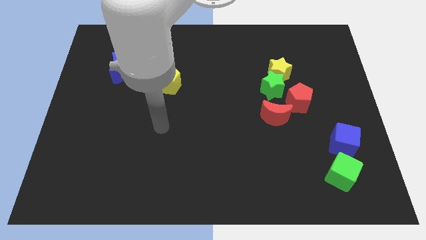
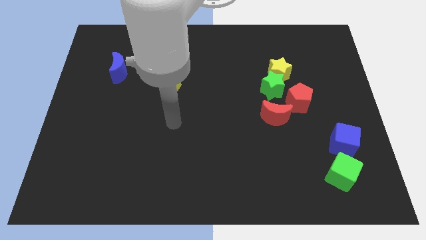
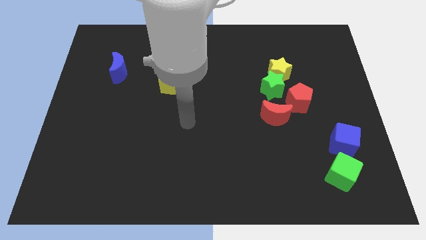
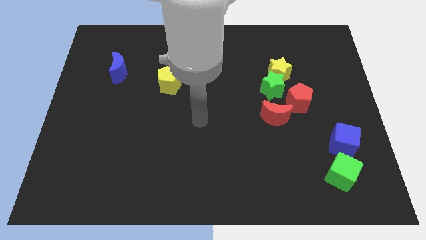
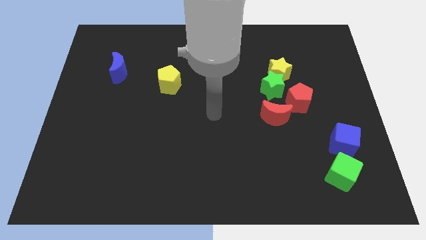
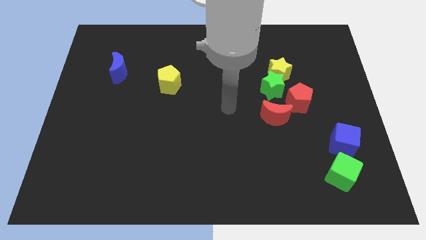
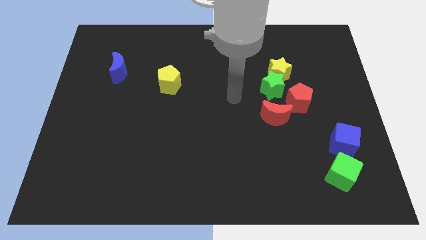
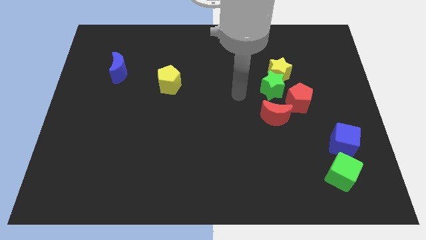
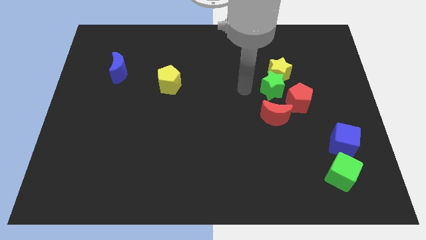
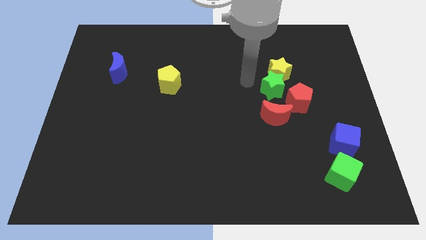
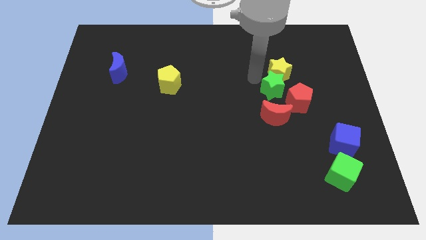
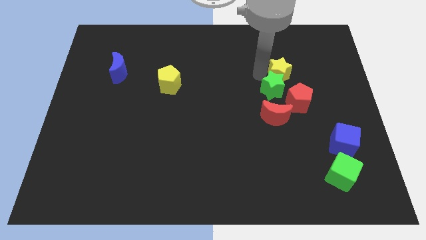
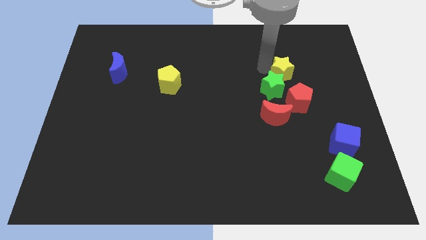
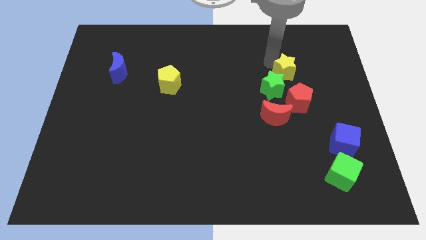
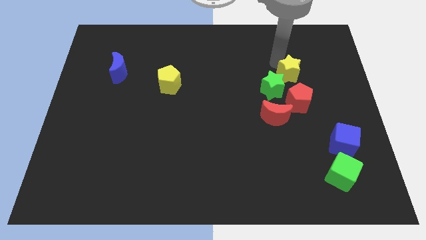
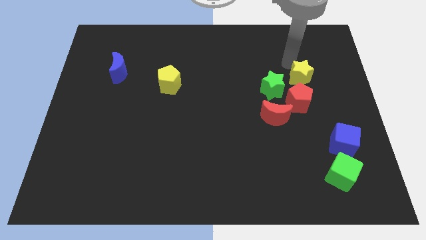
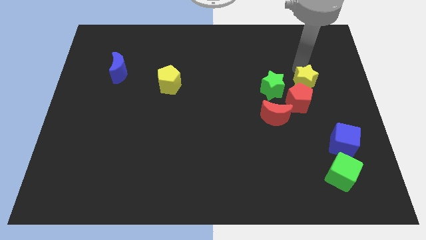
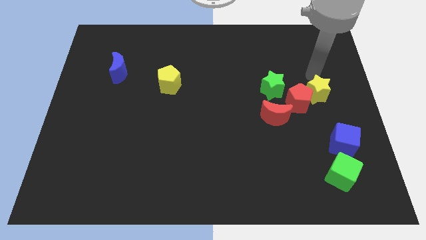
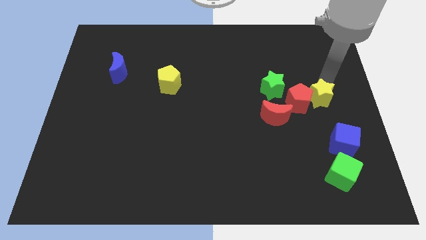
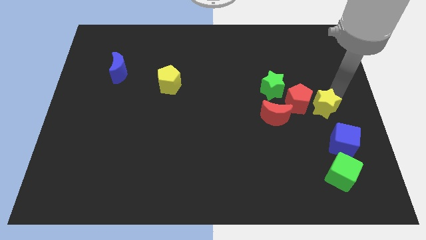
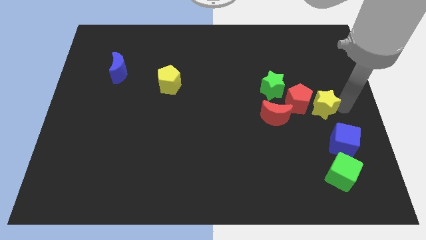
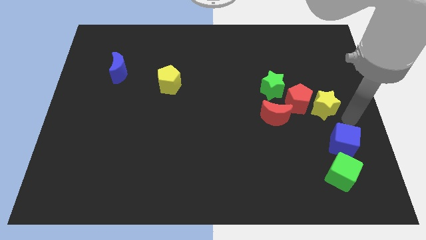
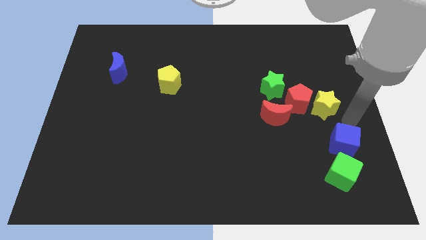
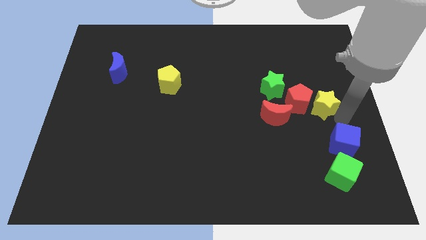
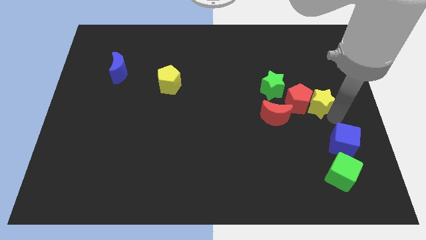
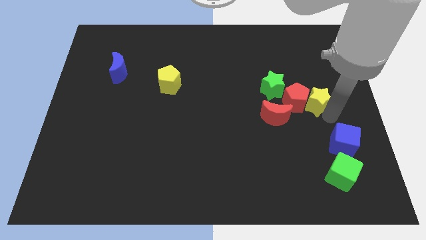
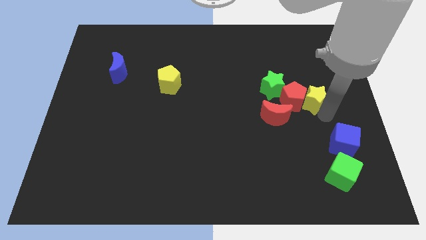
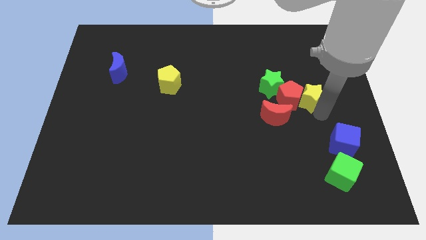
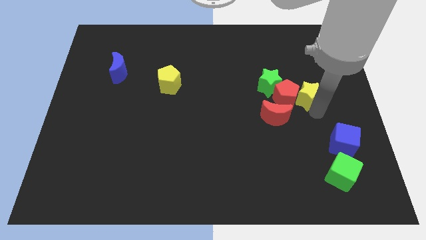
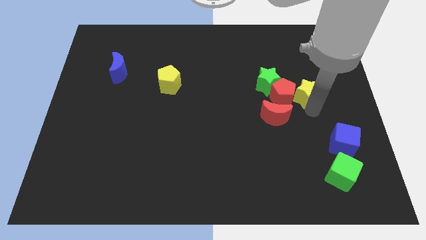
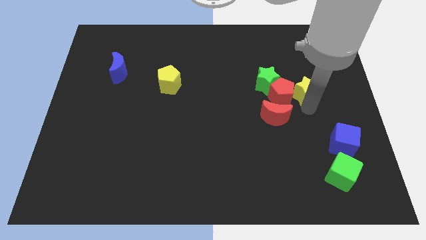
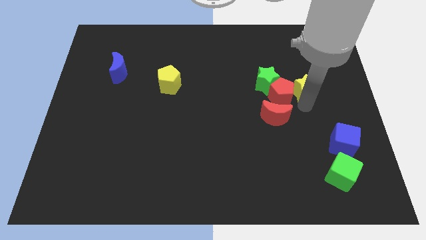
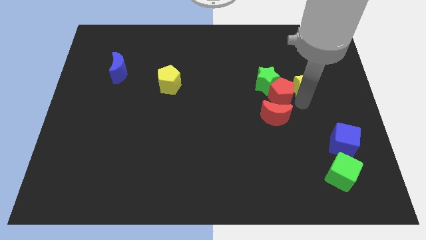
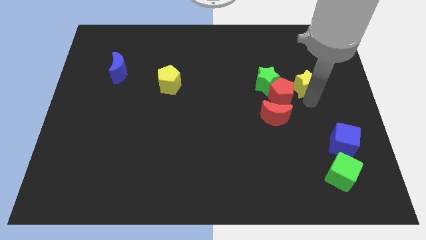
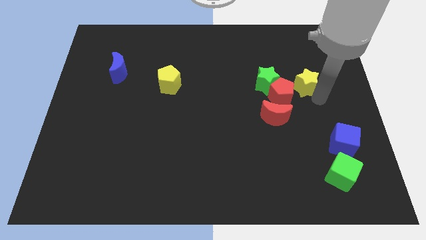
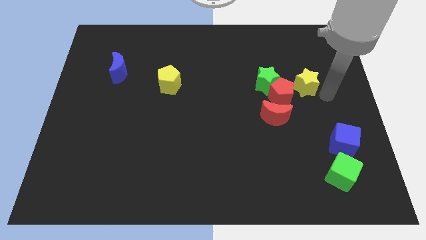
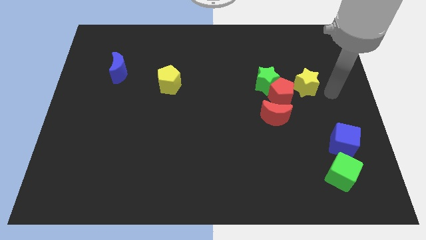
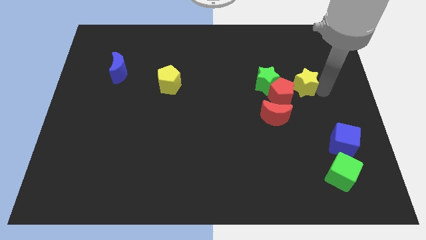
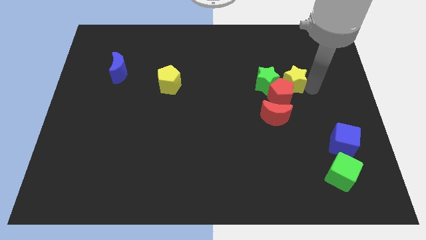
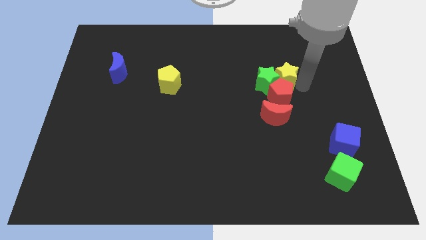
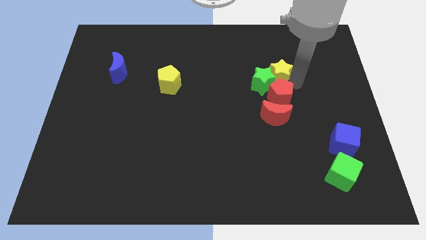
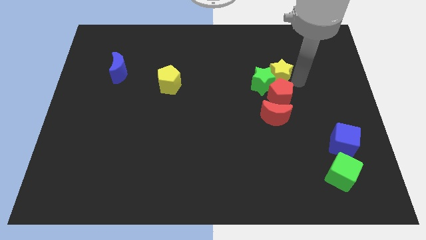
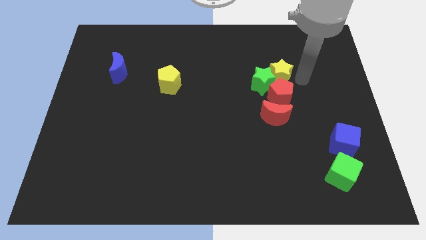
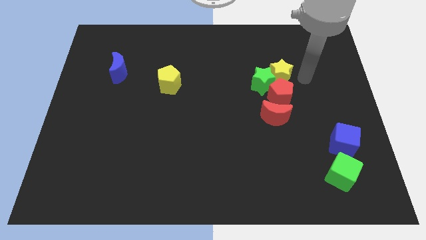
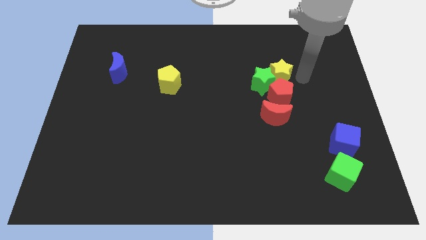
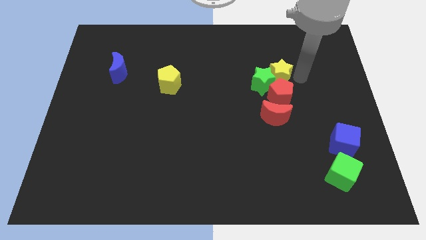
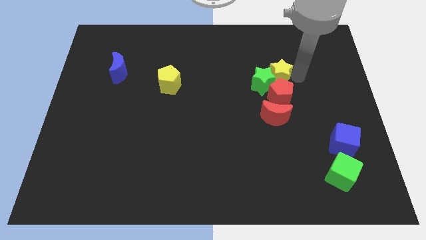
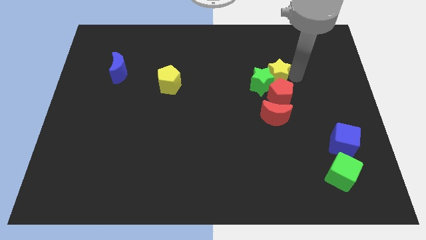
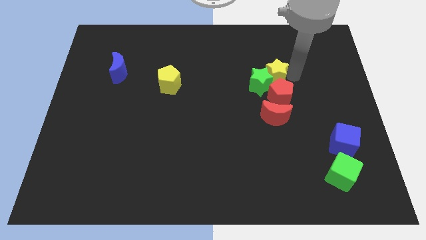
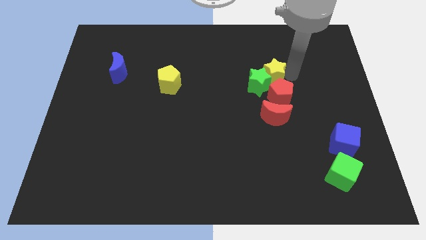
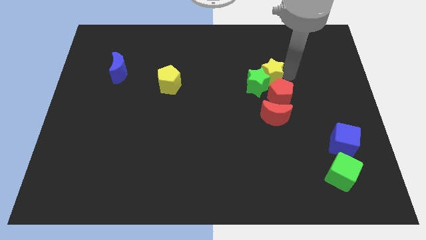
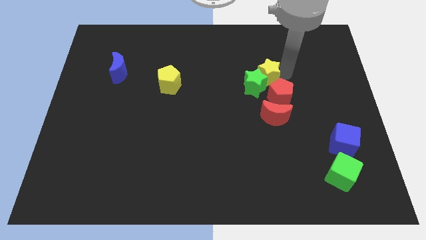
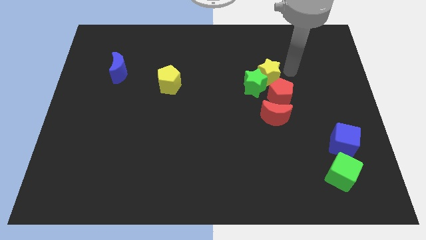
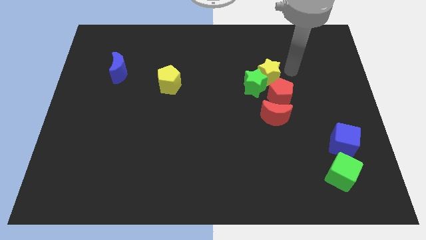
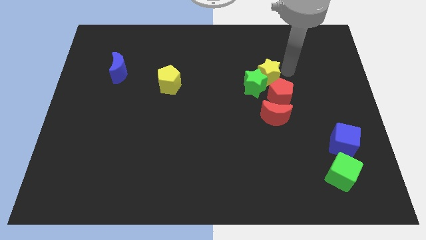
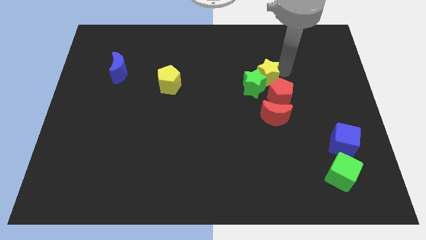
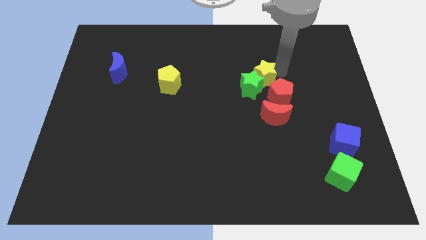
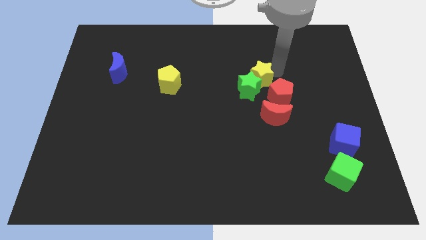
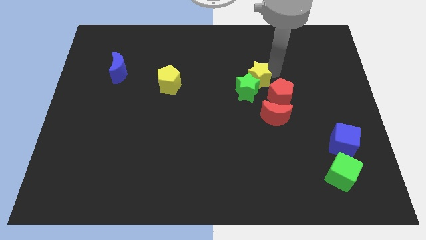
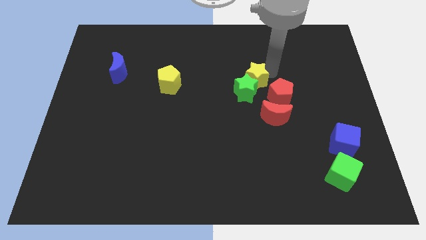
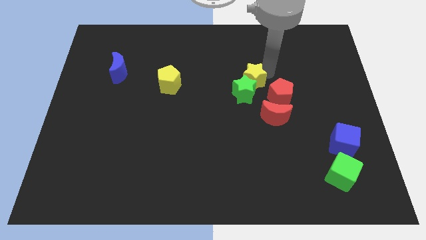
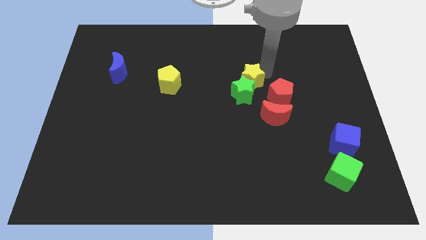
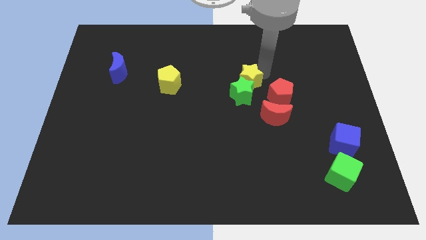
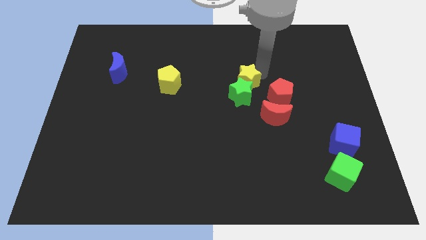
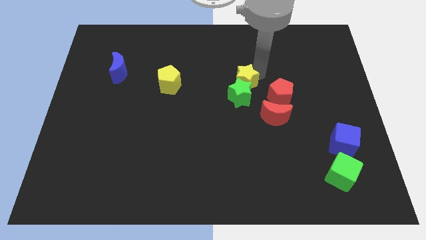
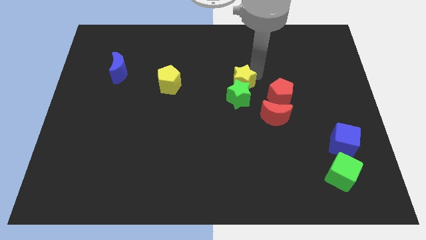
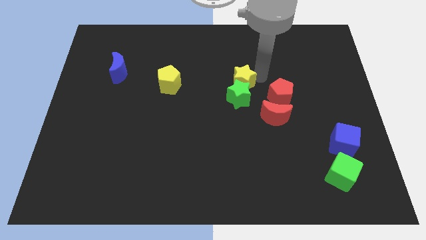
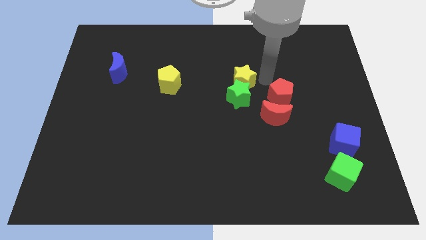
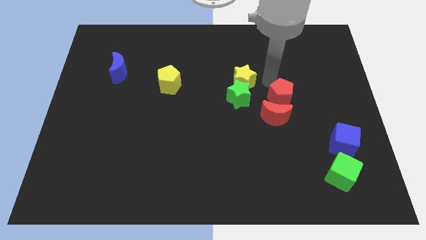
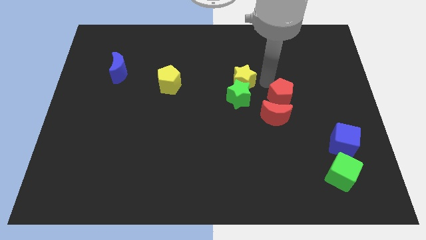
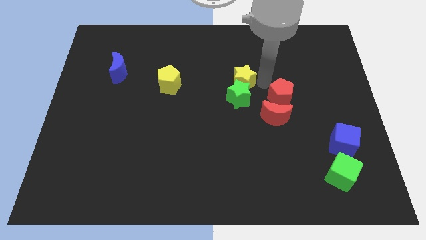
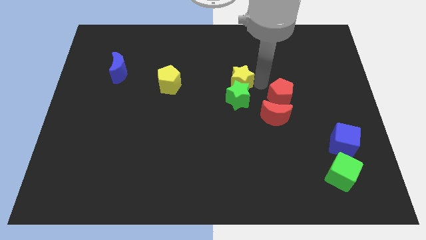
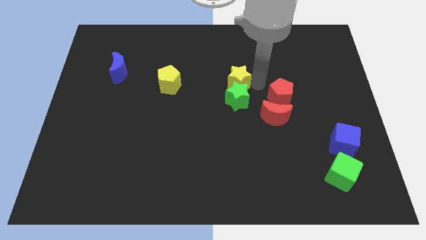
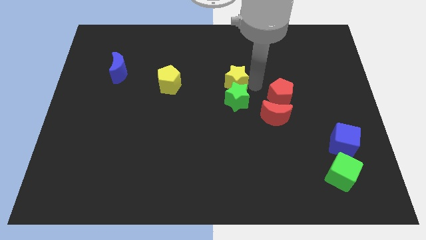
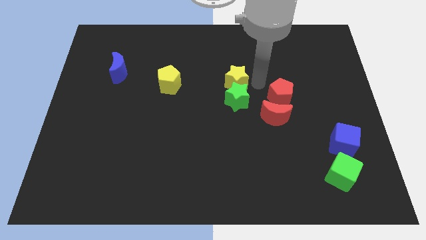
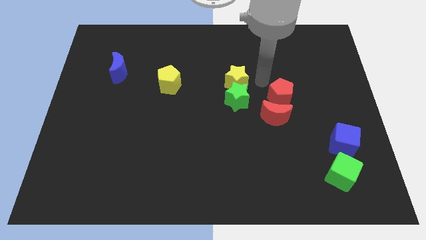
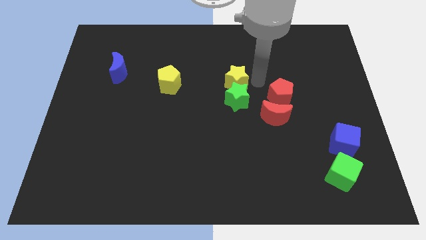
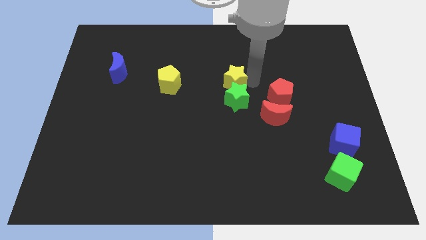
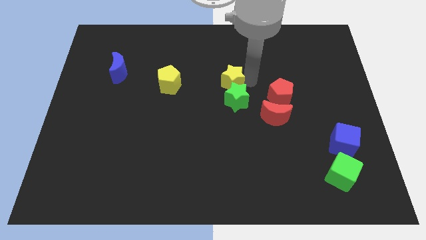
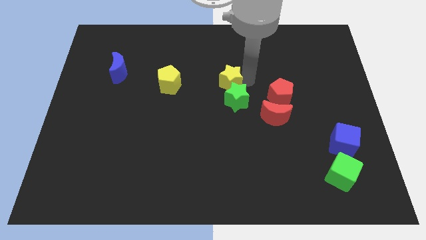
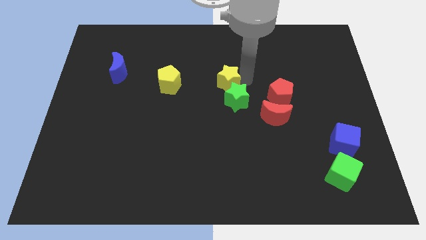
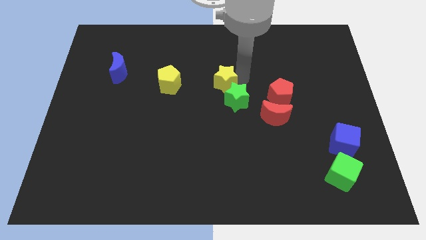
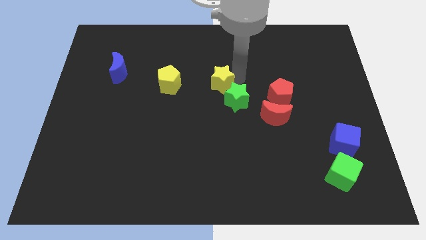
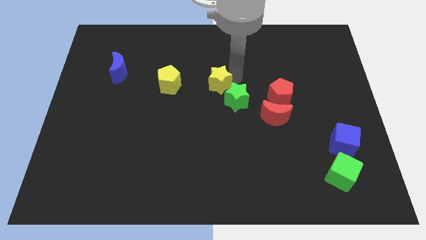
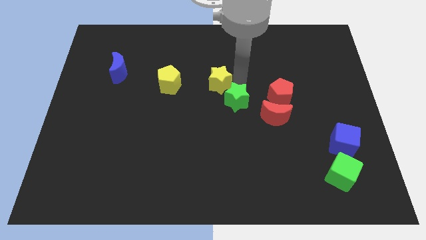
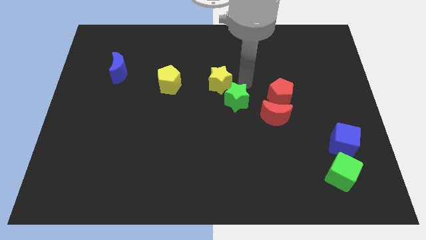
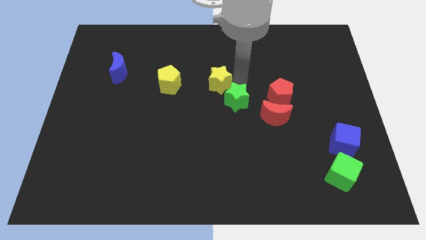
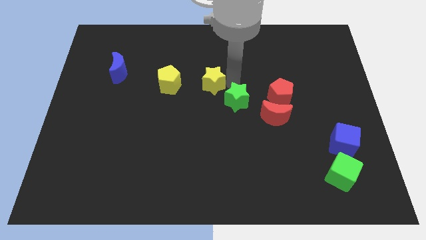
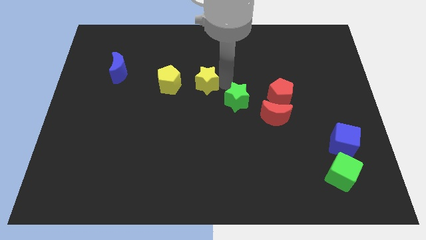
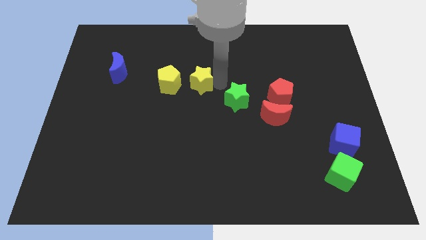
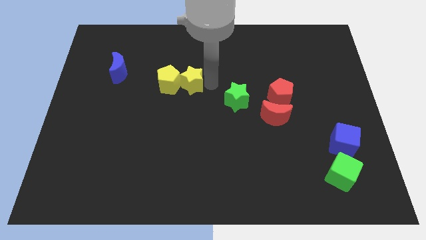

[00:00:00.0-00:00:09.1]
put the yellow star next to the yellow pentagon
